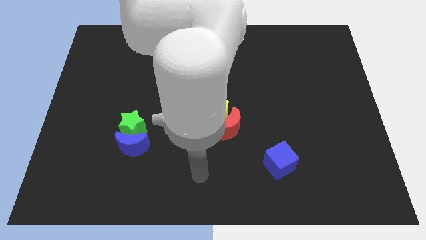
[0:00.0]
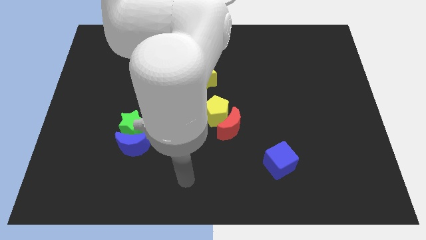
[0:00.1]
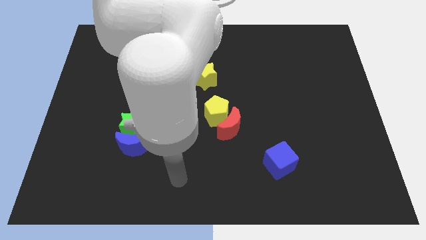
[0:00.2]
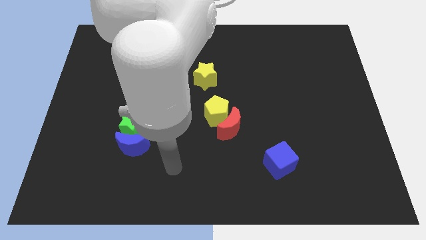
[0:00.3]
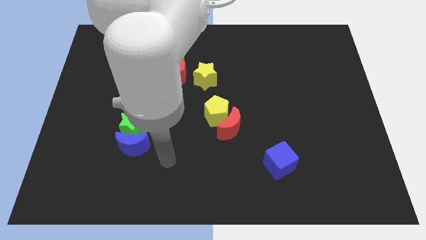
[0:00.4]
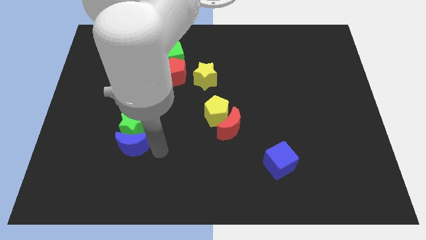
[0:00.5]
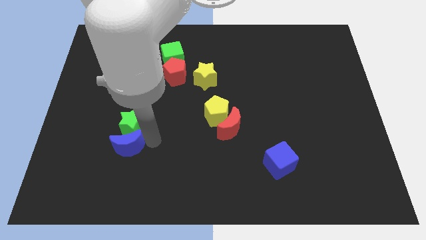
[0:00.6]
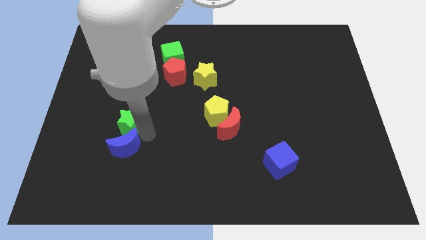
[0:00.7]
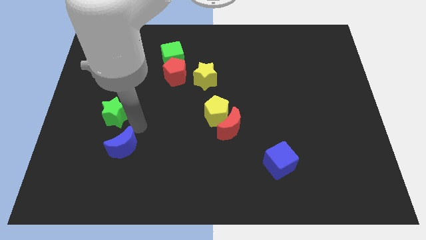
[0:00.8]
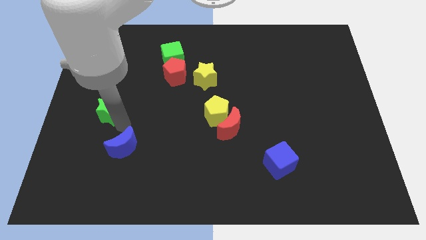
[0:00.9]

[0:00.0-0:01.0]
move the blue moon away from the green star

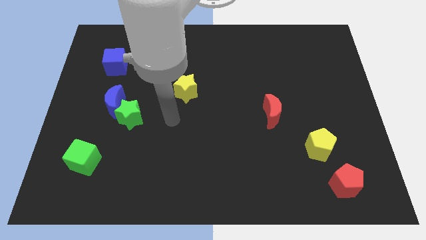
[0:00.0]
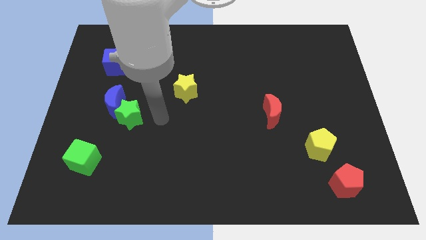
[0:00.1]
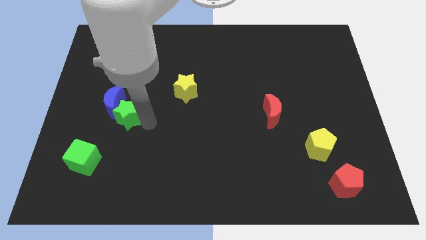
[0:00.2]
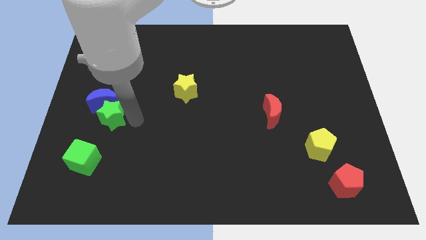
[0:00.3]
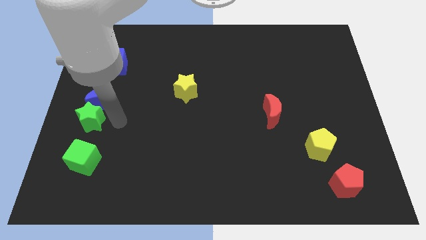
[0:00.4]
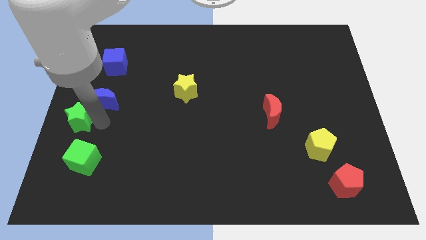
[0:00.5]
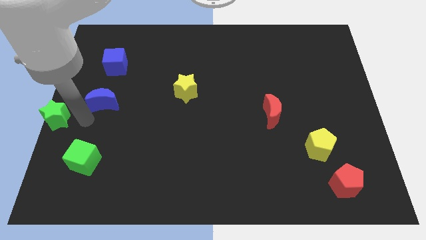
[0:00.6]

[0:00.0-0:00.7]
separate the blue moon from the green star

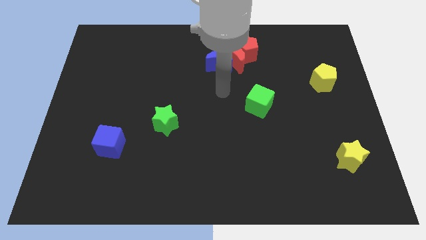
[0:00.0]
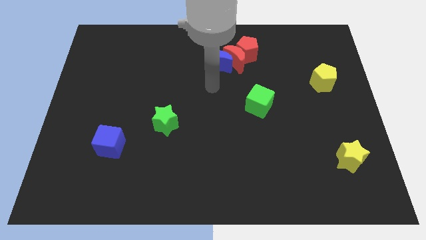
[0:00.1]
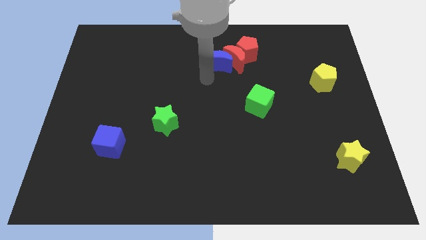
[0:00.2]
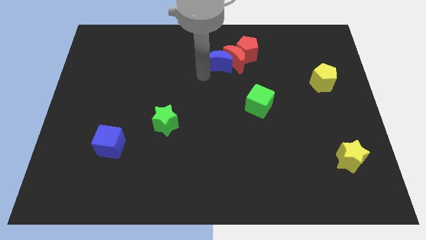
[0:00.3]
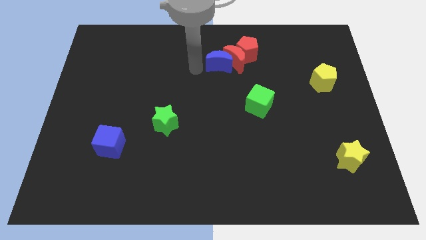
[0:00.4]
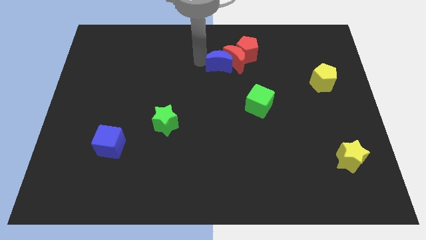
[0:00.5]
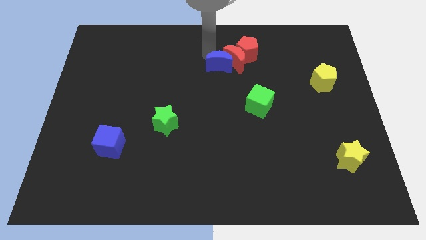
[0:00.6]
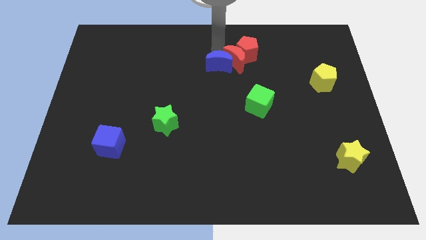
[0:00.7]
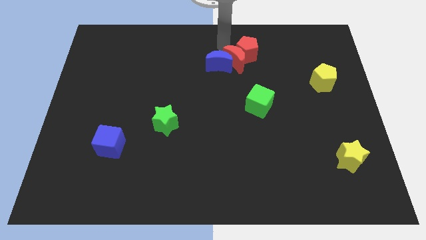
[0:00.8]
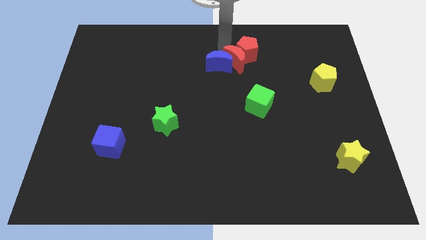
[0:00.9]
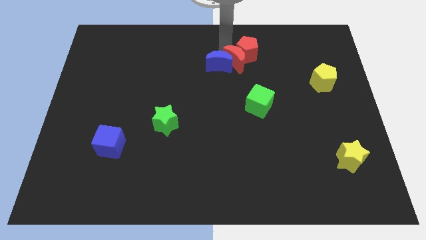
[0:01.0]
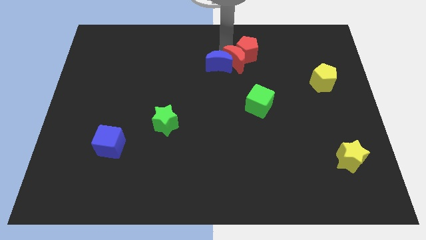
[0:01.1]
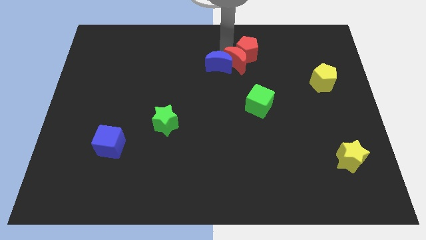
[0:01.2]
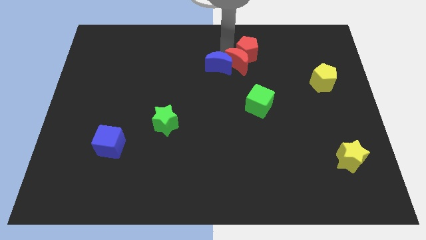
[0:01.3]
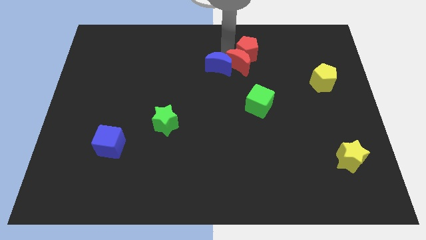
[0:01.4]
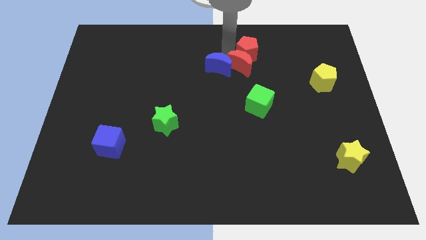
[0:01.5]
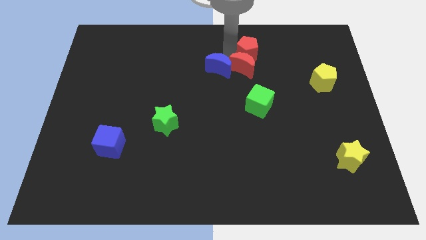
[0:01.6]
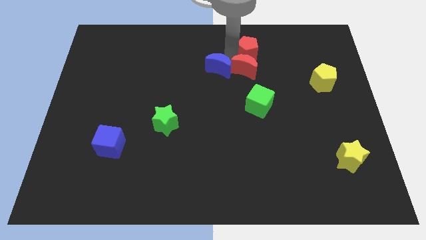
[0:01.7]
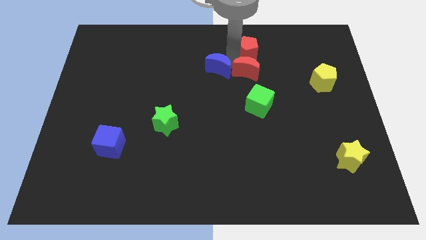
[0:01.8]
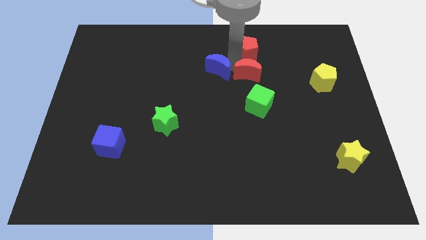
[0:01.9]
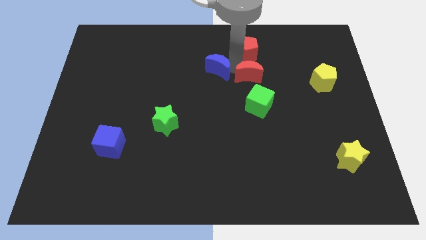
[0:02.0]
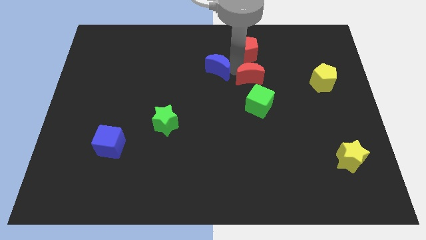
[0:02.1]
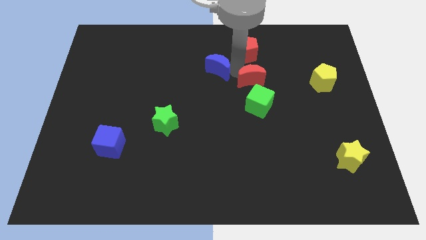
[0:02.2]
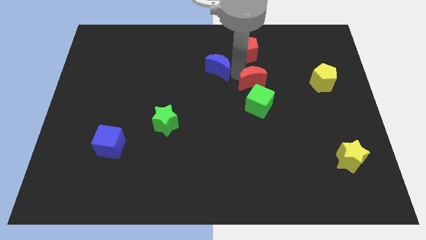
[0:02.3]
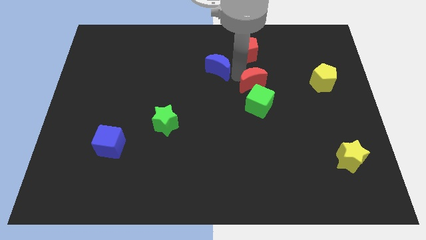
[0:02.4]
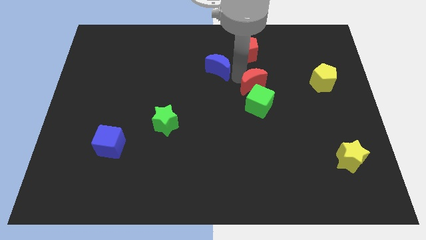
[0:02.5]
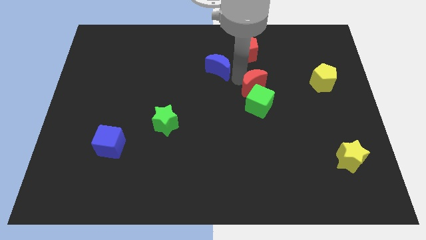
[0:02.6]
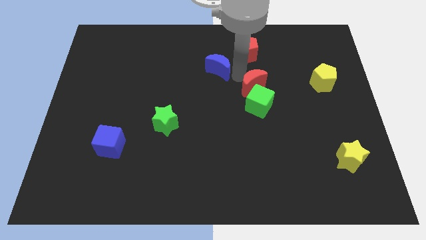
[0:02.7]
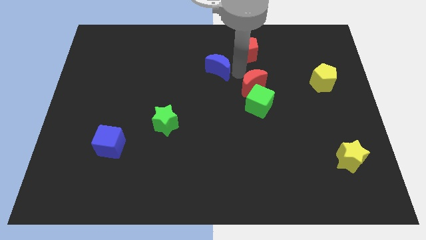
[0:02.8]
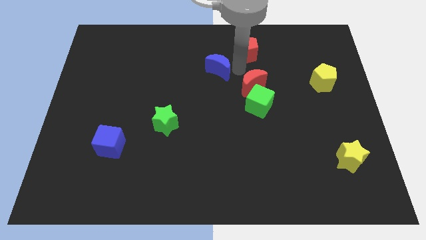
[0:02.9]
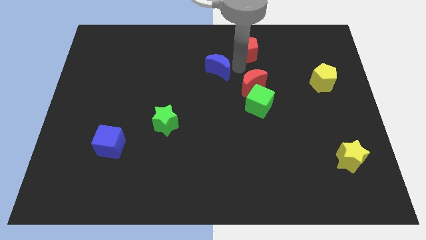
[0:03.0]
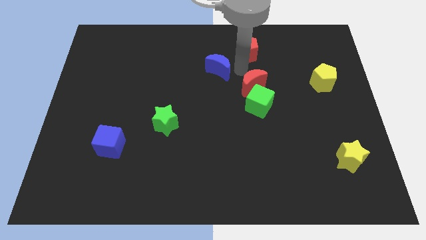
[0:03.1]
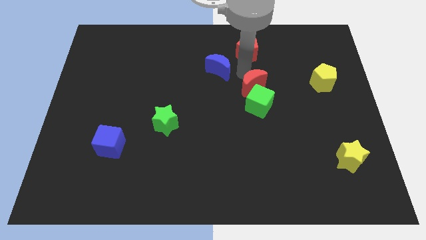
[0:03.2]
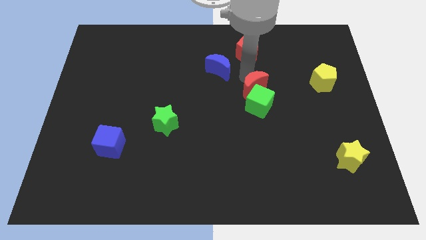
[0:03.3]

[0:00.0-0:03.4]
move the red moon away from the blue moon and red pentagon

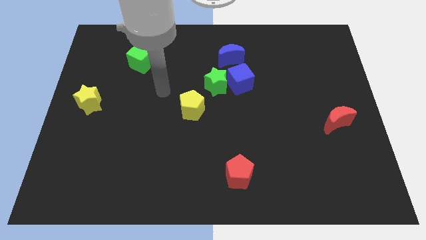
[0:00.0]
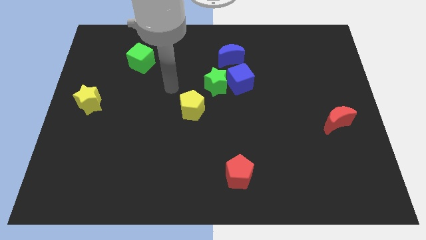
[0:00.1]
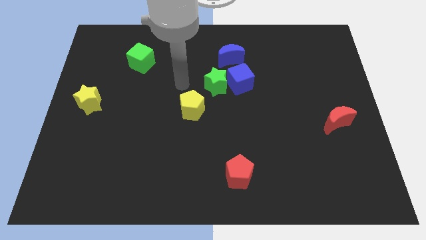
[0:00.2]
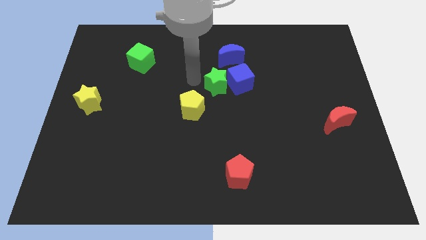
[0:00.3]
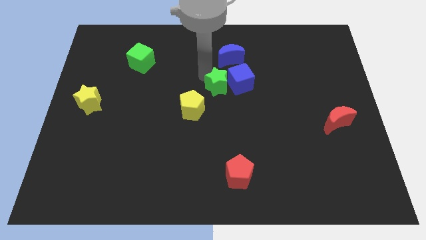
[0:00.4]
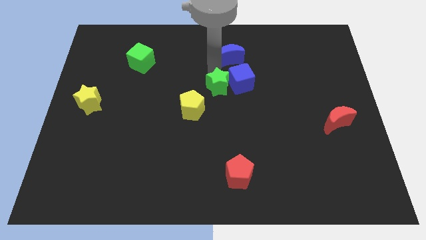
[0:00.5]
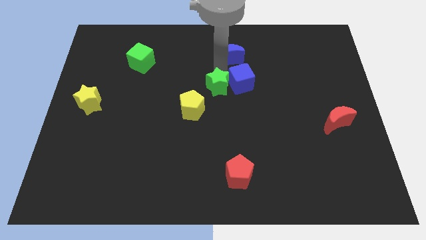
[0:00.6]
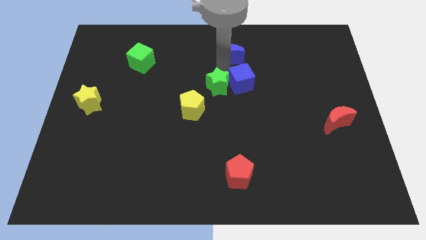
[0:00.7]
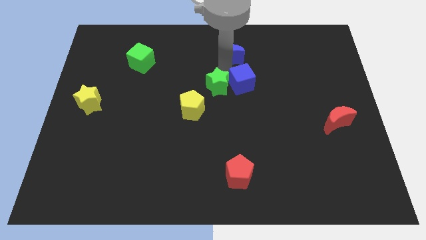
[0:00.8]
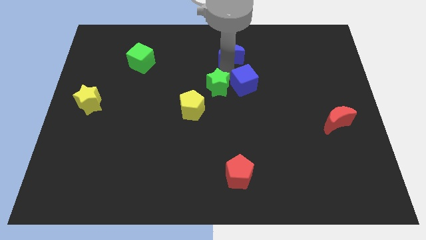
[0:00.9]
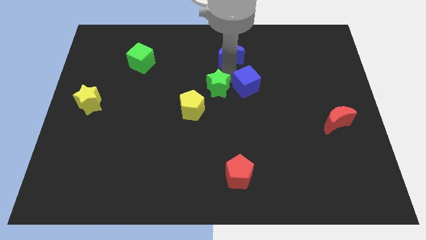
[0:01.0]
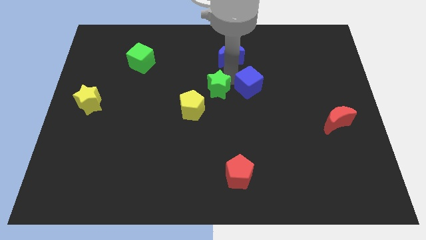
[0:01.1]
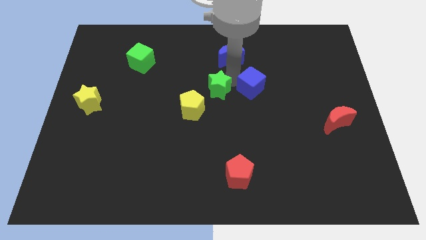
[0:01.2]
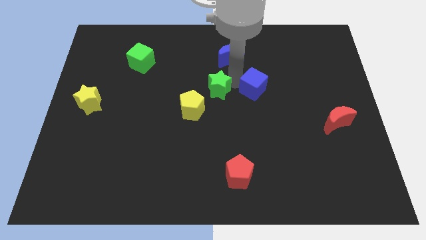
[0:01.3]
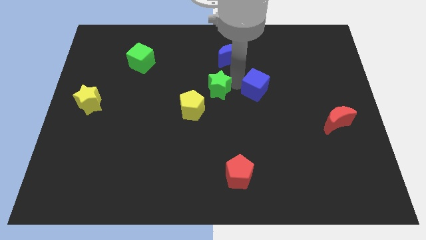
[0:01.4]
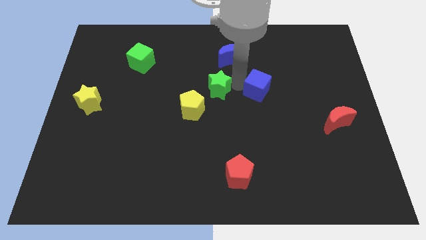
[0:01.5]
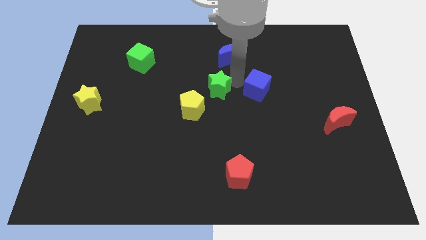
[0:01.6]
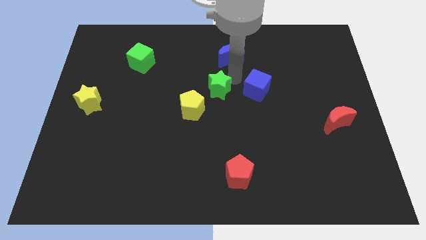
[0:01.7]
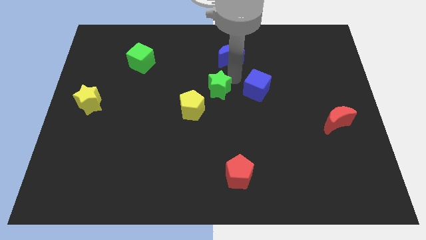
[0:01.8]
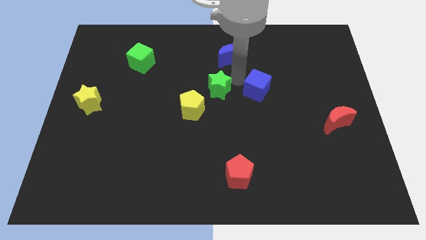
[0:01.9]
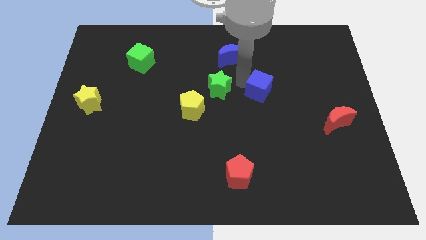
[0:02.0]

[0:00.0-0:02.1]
pull the blue cube apart from the green star and blue moon

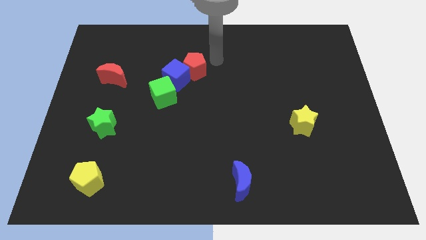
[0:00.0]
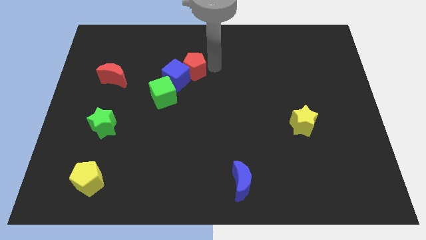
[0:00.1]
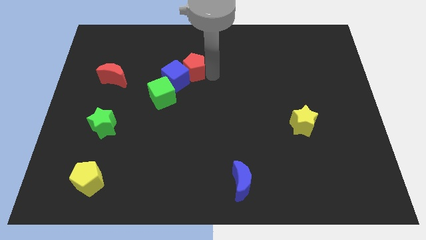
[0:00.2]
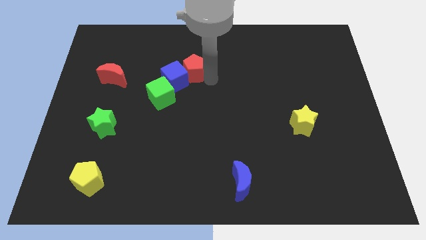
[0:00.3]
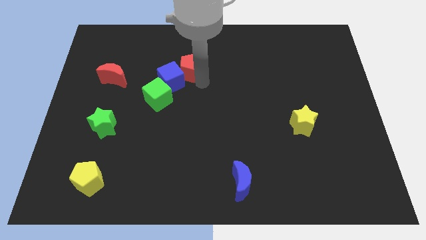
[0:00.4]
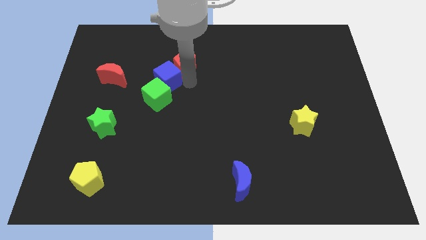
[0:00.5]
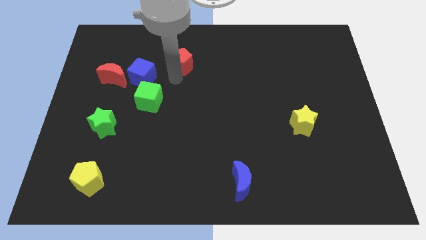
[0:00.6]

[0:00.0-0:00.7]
separate the red pentagon from the blue cube

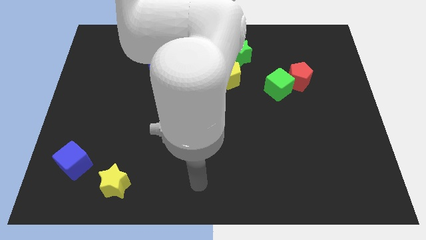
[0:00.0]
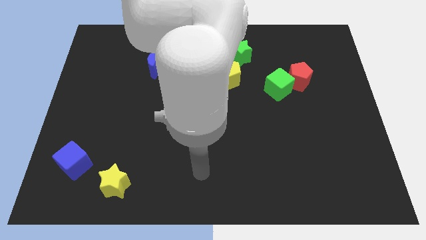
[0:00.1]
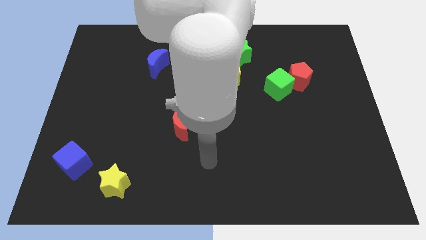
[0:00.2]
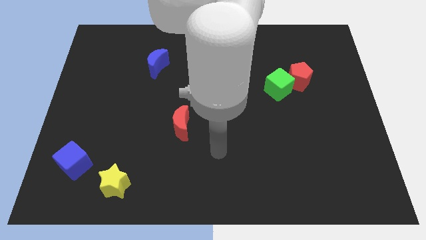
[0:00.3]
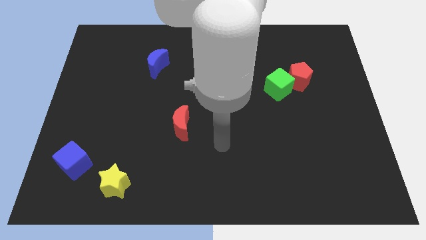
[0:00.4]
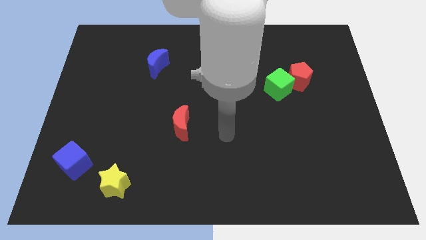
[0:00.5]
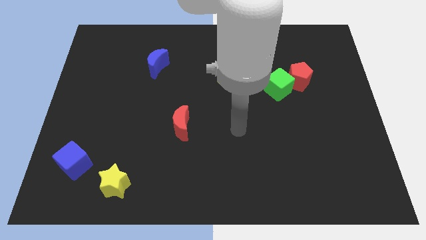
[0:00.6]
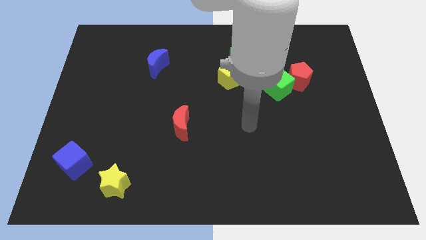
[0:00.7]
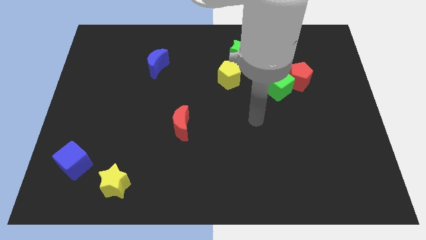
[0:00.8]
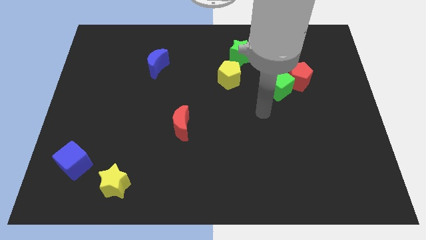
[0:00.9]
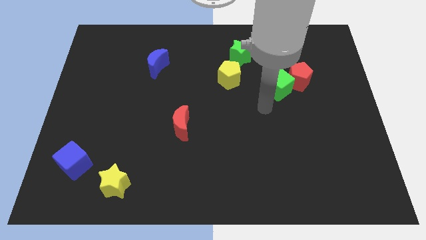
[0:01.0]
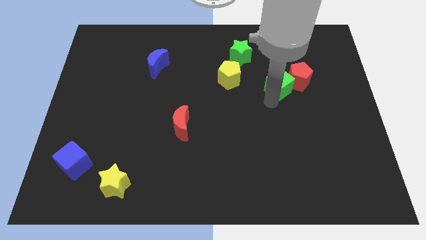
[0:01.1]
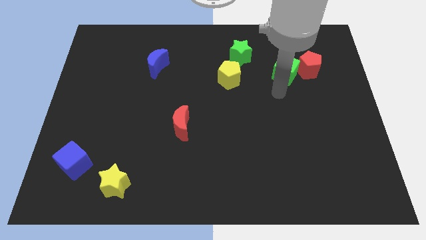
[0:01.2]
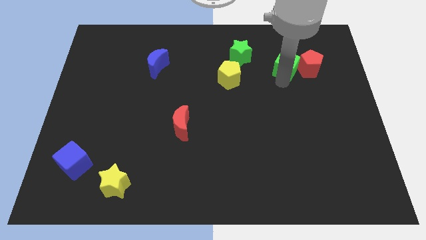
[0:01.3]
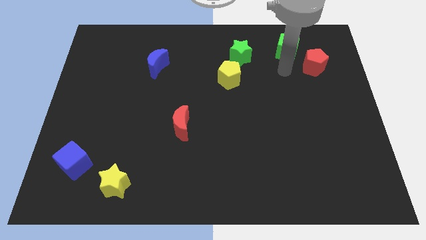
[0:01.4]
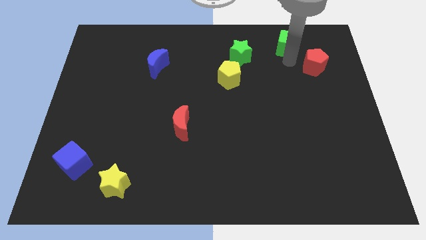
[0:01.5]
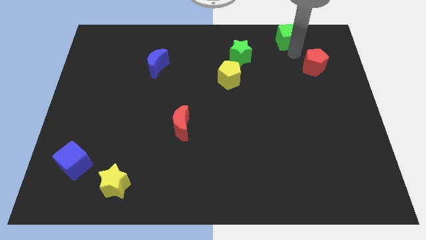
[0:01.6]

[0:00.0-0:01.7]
move the red pentagon away from the green cube
